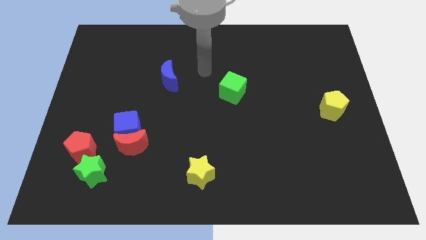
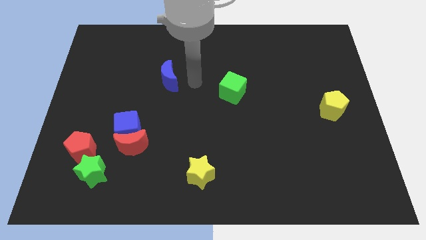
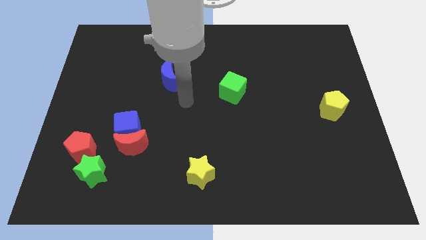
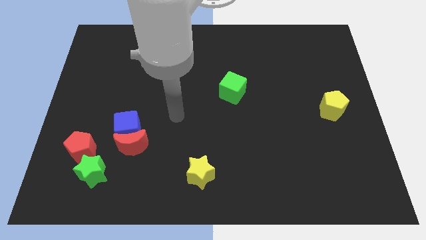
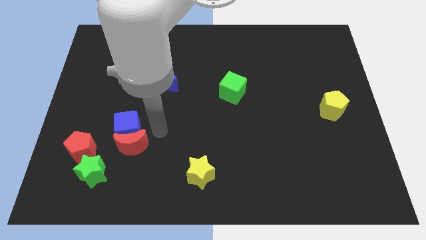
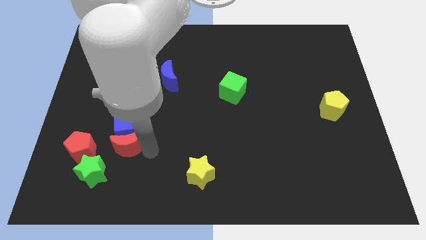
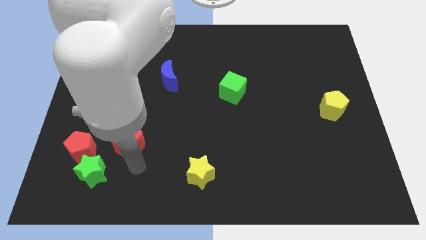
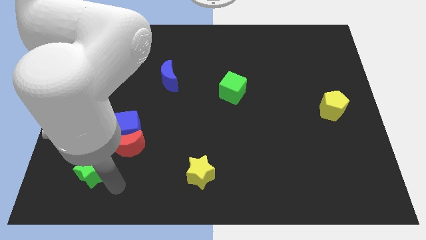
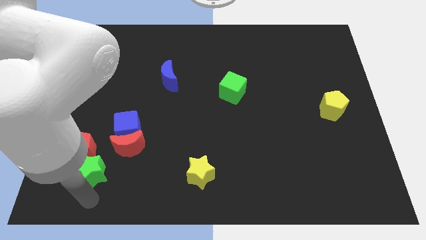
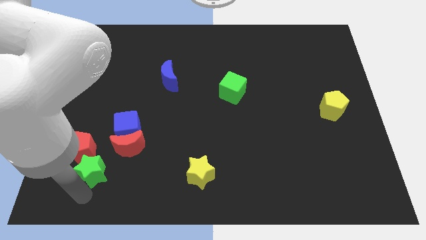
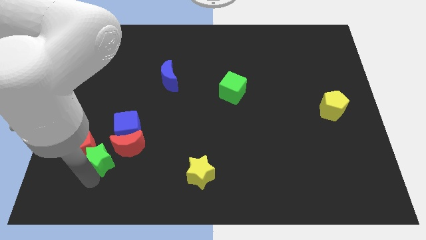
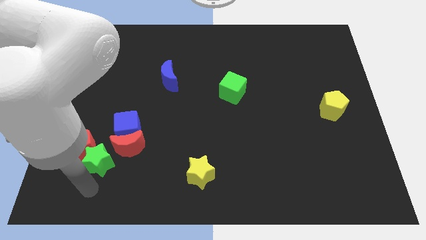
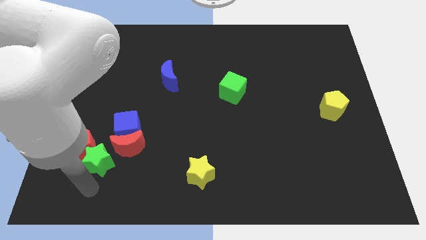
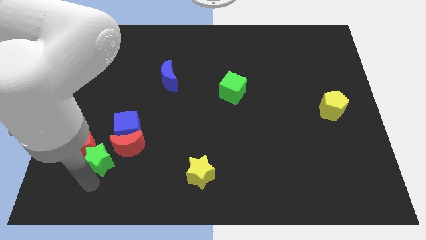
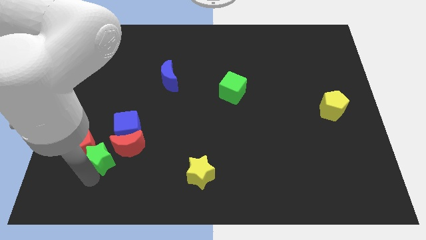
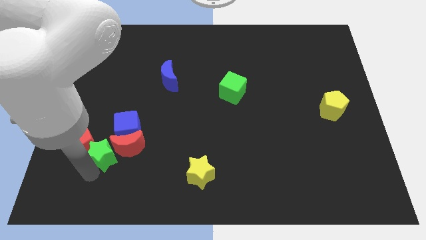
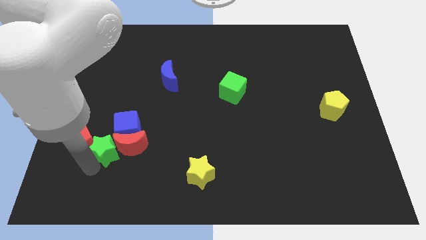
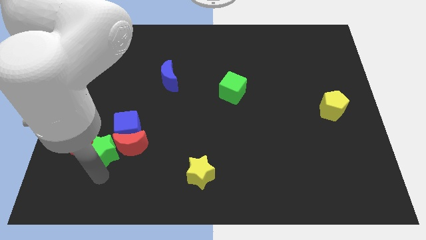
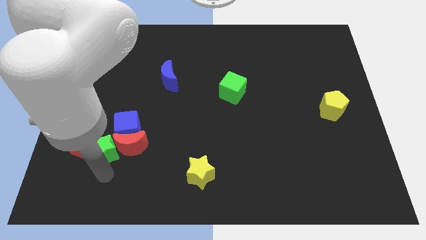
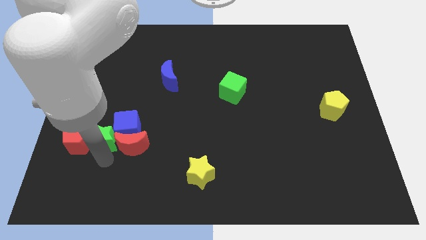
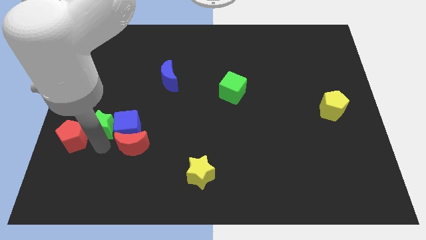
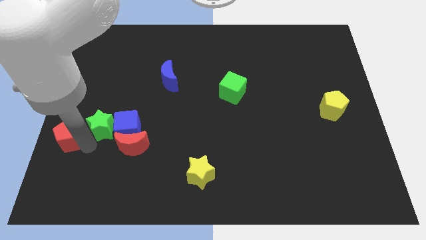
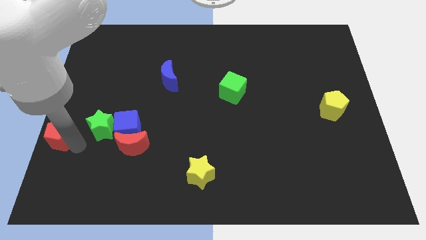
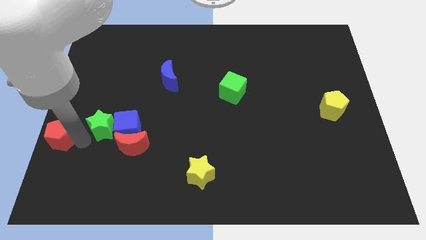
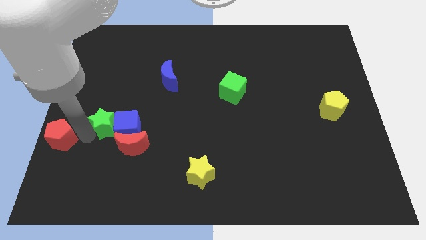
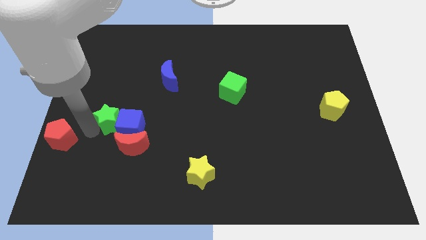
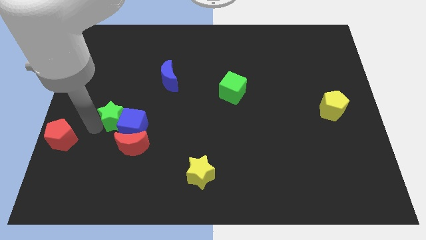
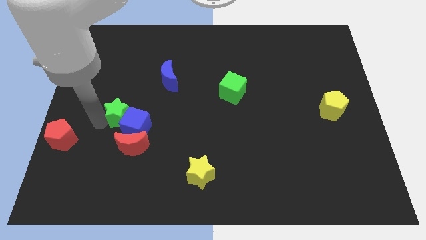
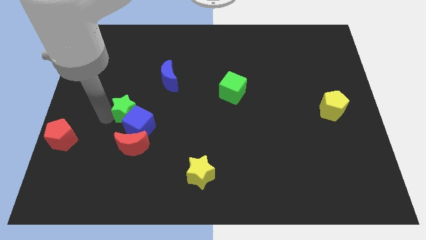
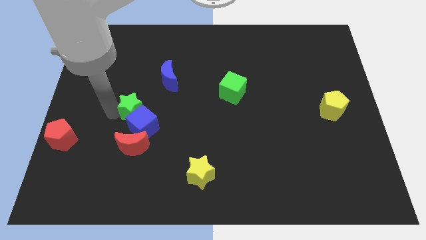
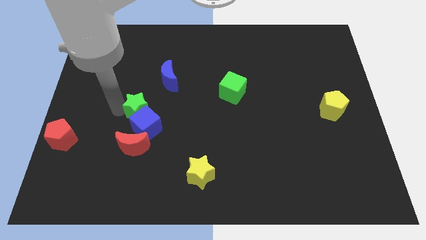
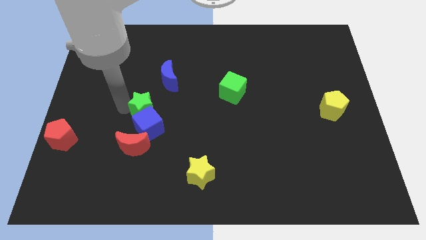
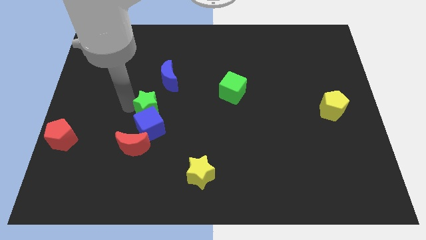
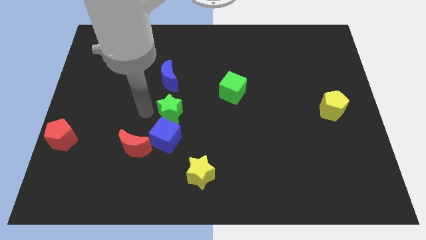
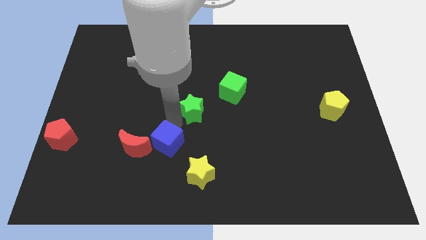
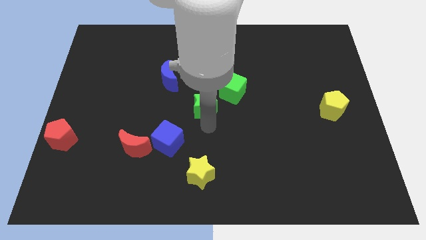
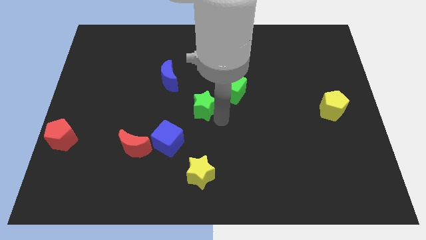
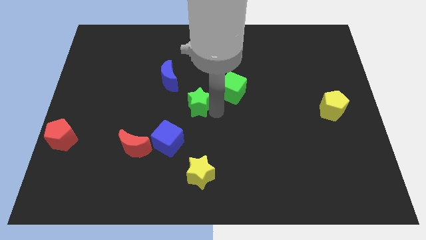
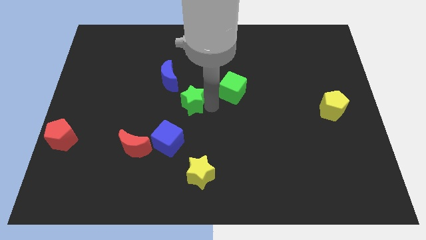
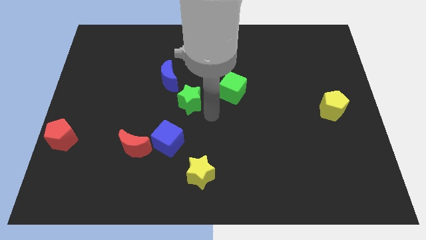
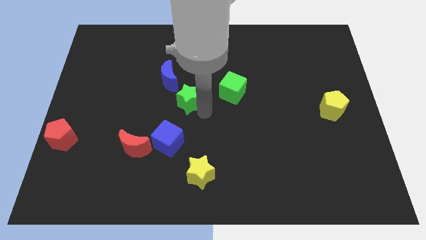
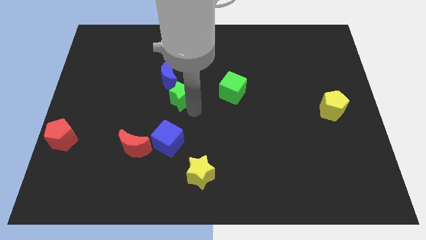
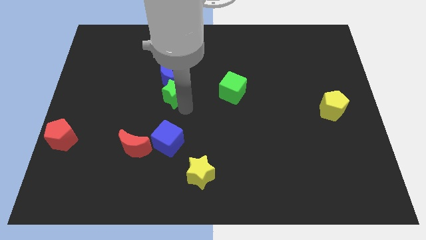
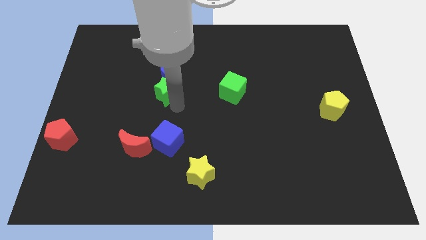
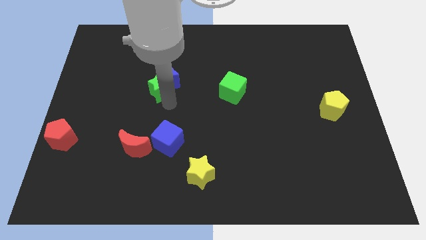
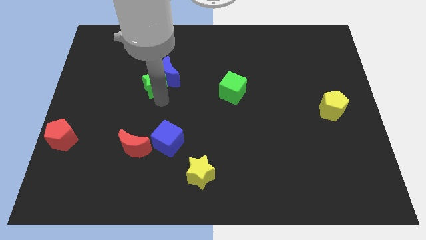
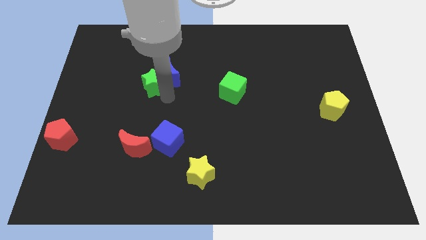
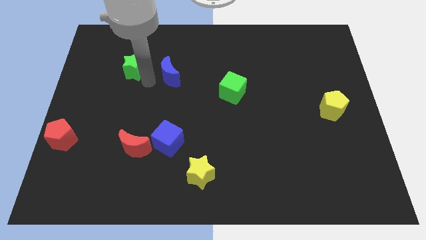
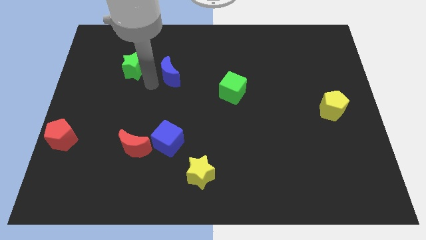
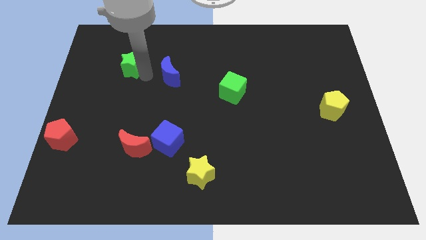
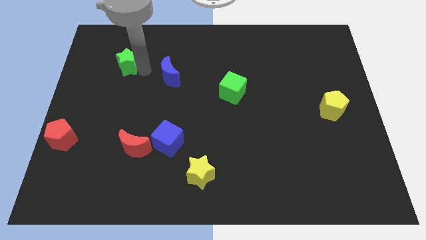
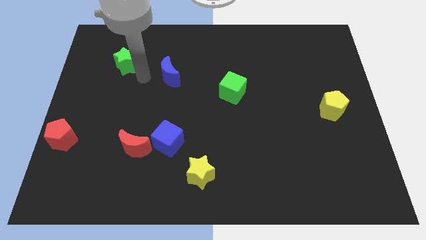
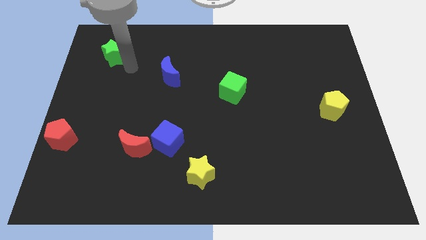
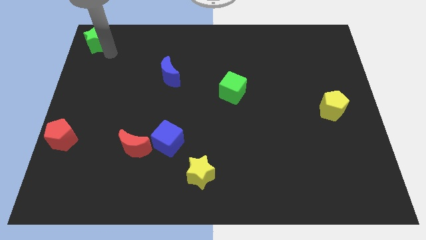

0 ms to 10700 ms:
put the green star to the top left corner

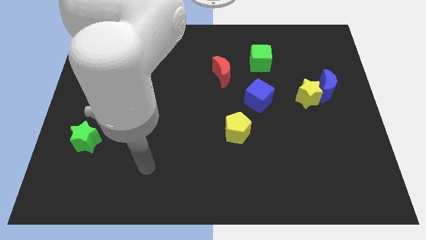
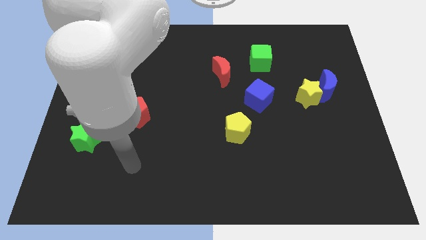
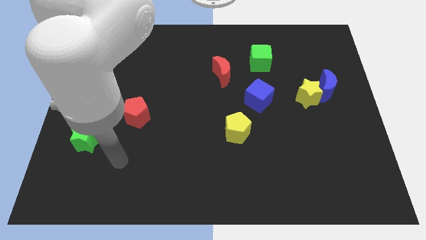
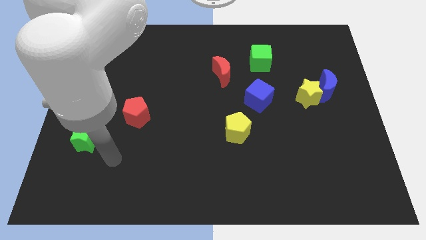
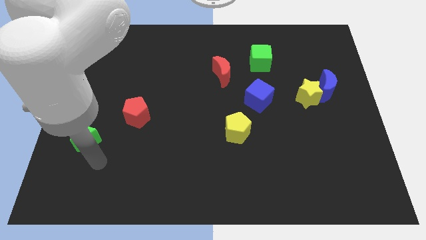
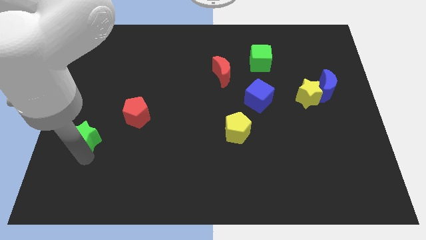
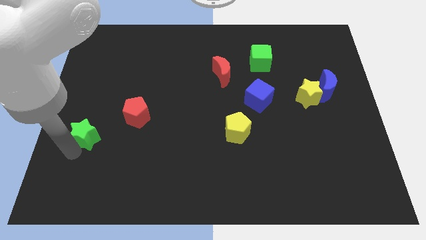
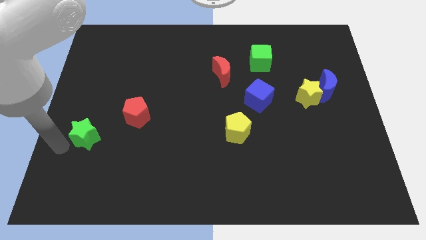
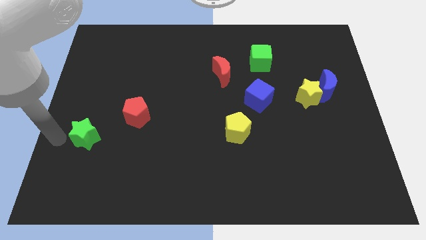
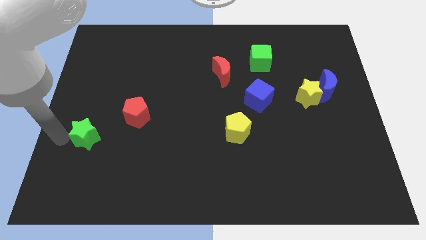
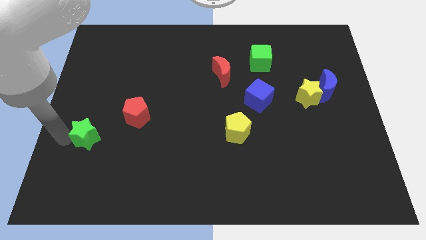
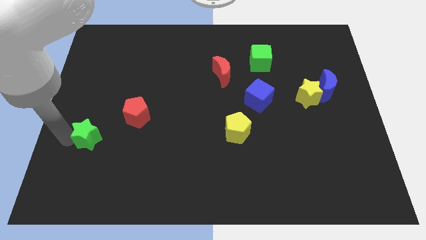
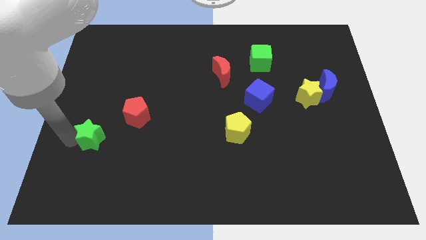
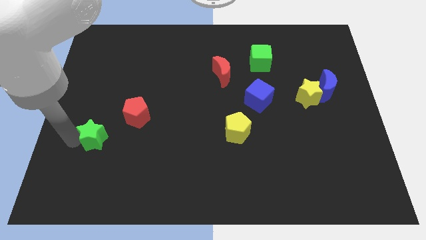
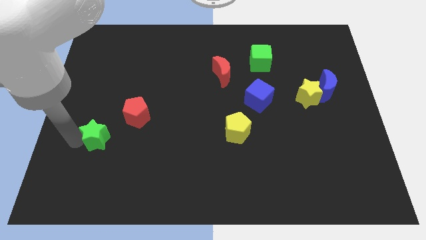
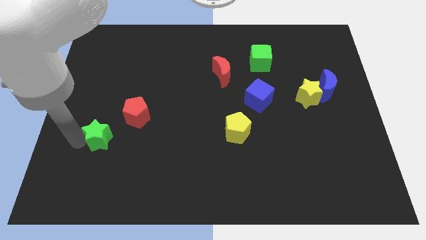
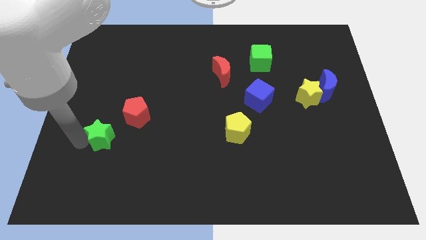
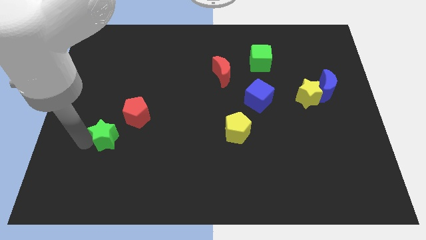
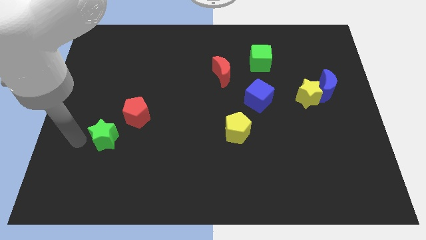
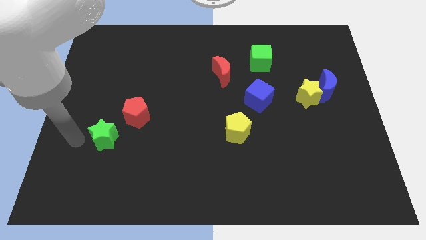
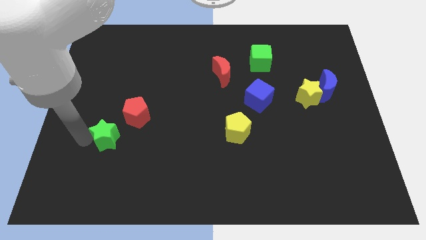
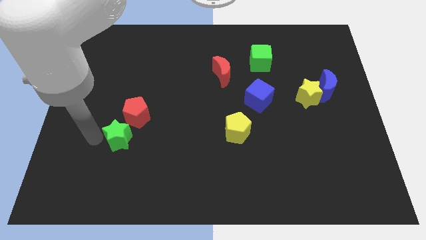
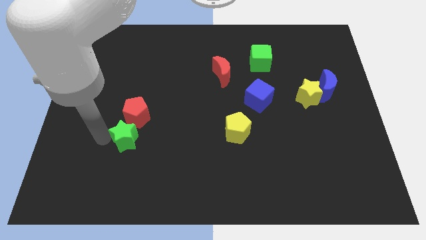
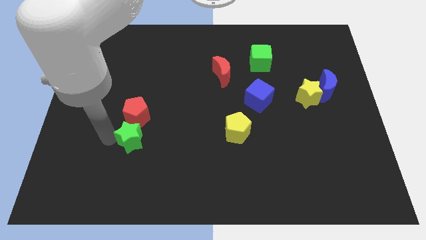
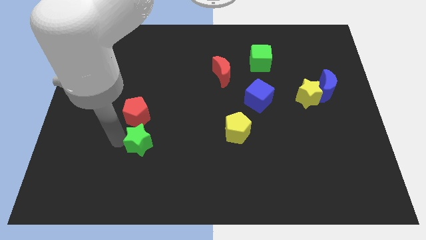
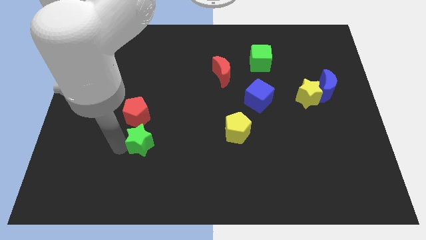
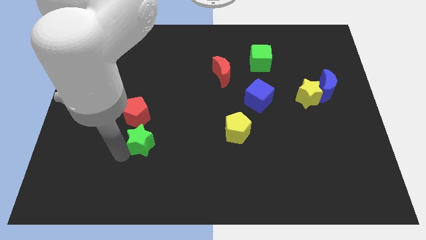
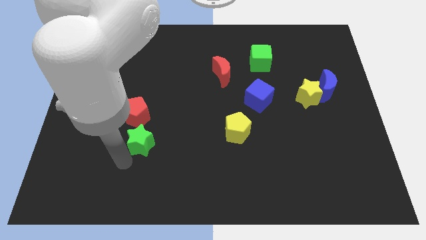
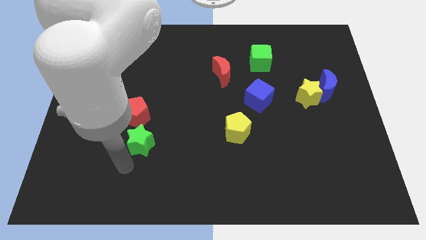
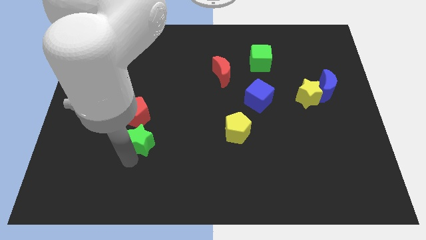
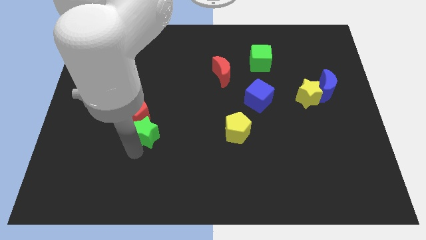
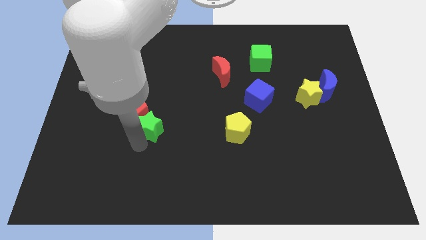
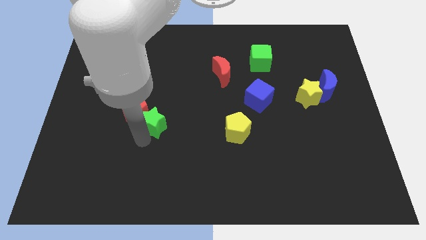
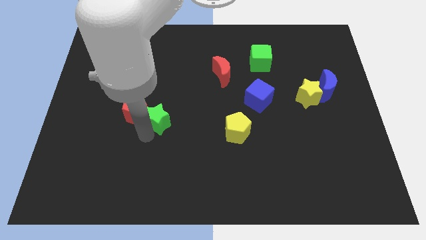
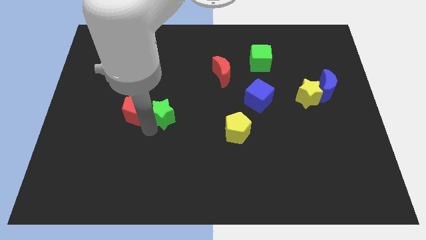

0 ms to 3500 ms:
put the green star to the center of the board
